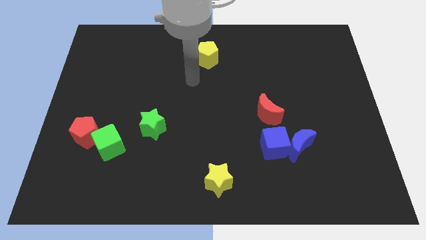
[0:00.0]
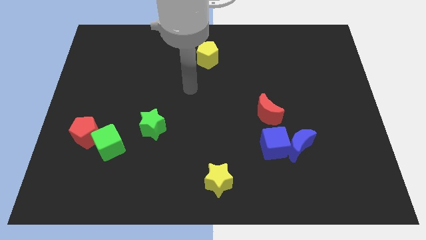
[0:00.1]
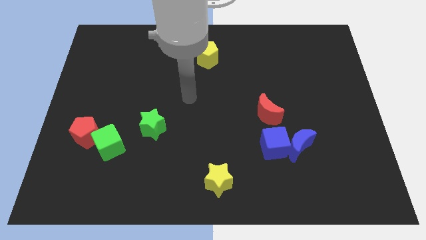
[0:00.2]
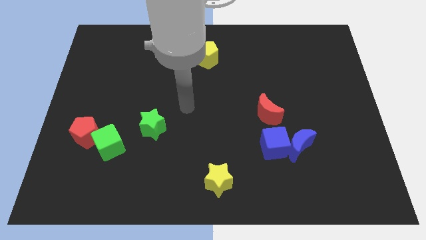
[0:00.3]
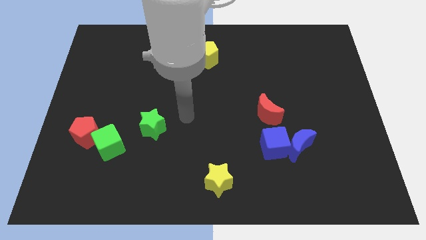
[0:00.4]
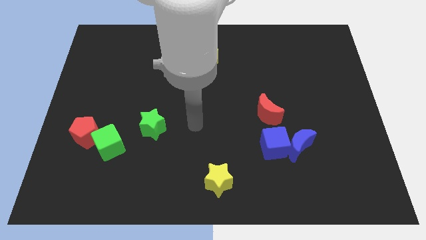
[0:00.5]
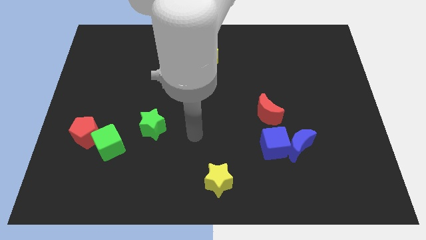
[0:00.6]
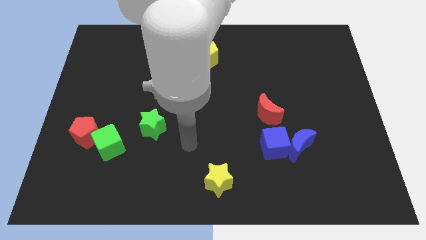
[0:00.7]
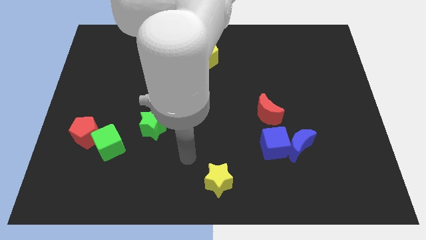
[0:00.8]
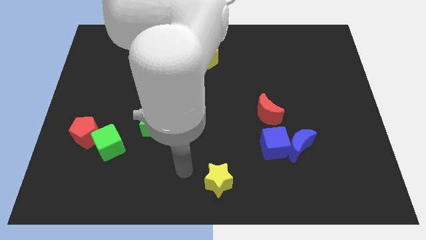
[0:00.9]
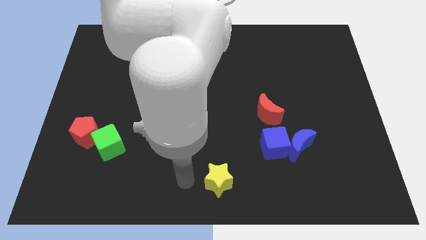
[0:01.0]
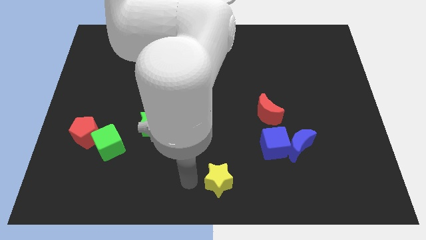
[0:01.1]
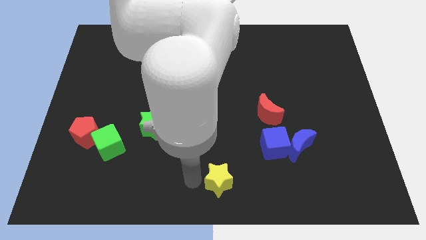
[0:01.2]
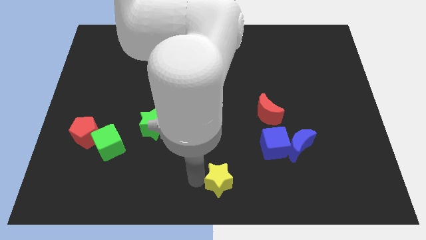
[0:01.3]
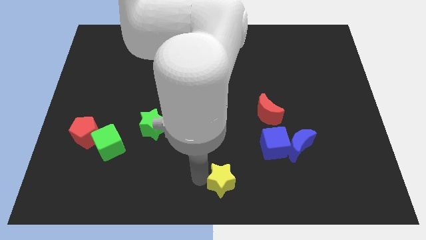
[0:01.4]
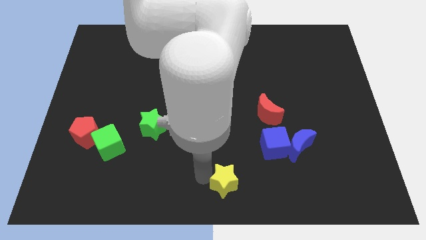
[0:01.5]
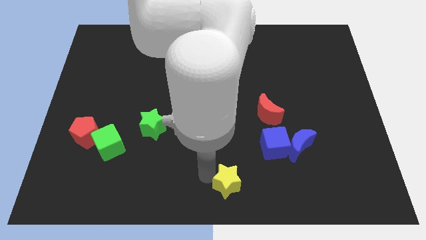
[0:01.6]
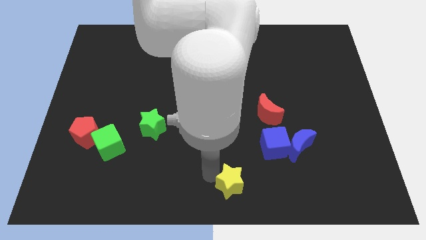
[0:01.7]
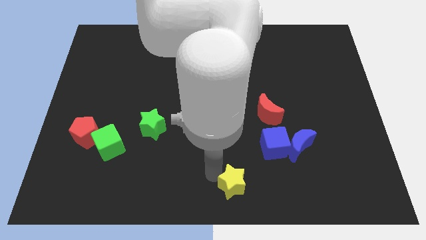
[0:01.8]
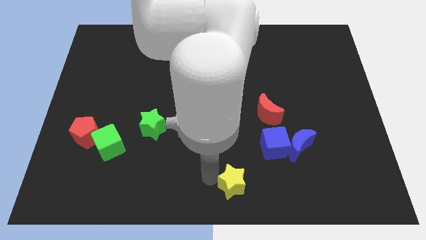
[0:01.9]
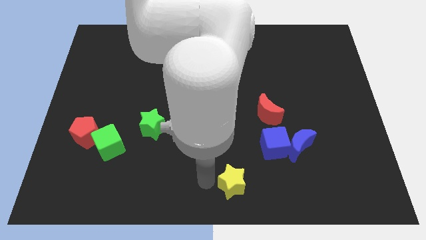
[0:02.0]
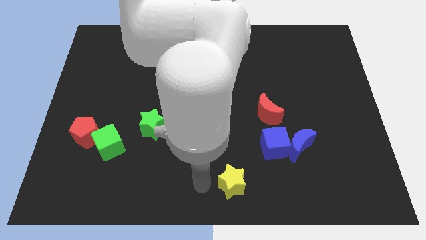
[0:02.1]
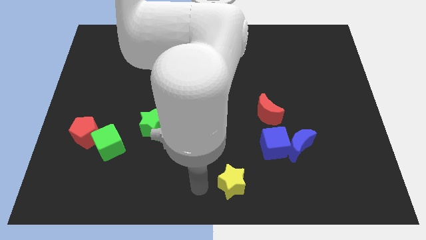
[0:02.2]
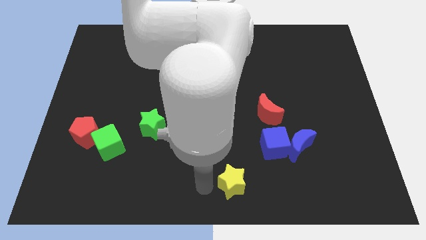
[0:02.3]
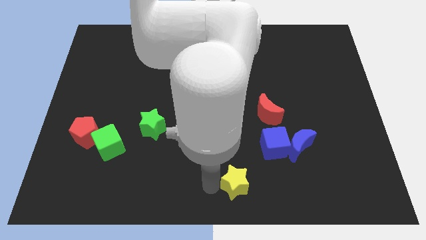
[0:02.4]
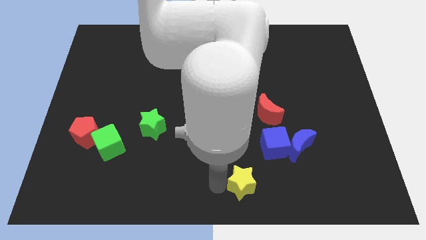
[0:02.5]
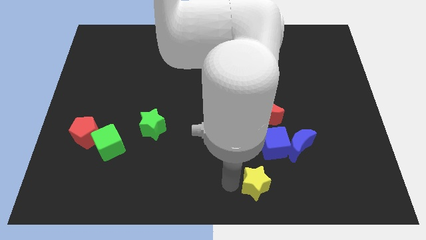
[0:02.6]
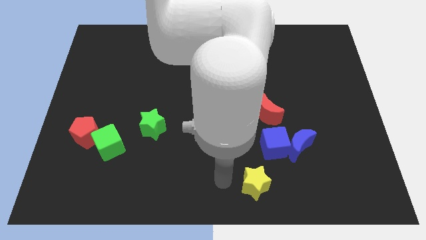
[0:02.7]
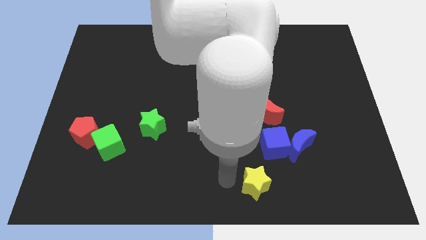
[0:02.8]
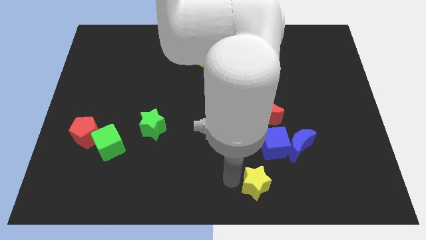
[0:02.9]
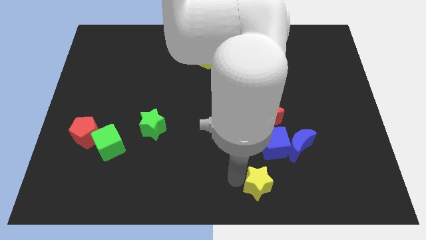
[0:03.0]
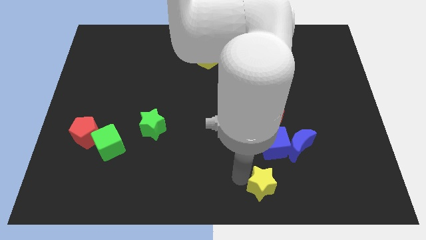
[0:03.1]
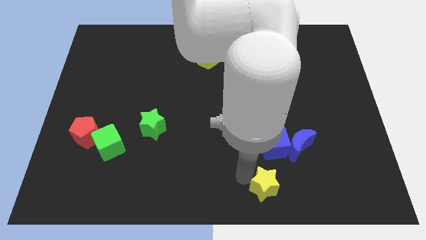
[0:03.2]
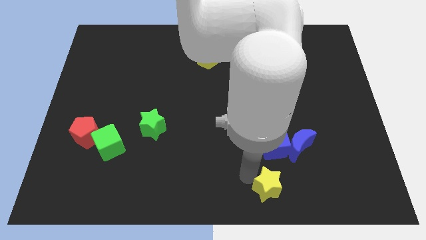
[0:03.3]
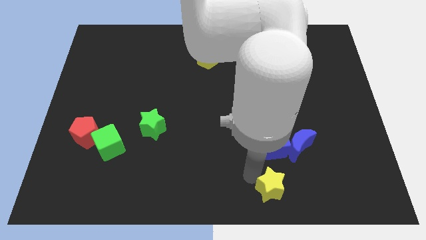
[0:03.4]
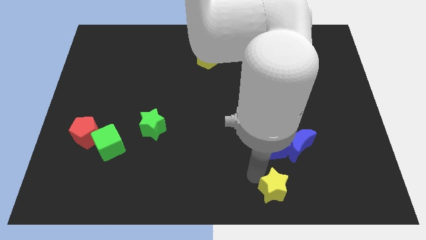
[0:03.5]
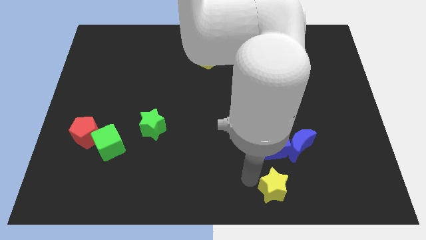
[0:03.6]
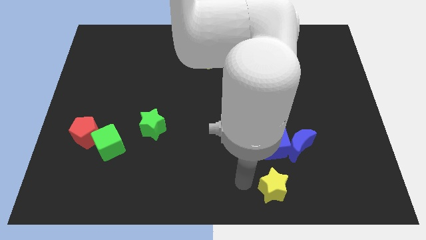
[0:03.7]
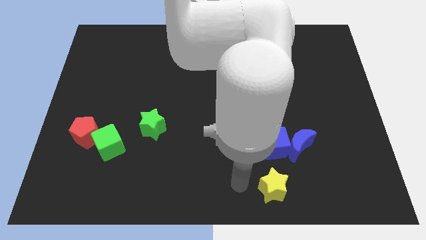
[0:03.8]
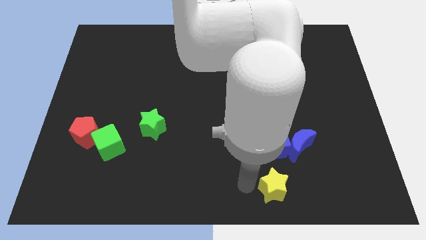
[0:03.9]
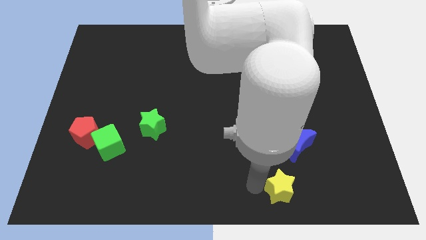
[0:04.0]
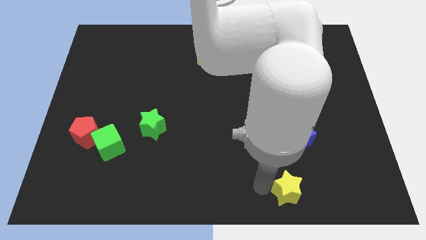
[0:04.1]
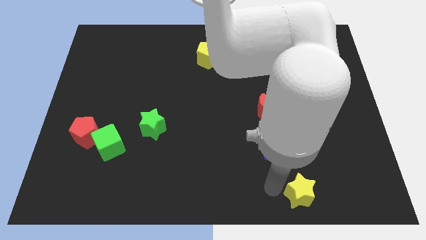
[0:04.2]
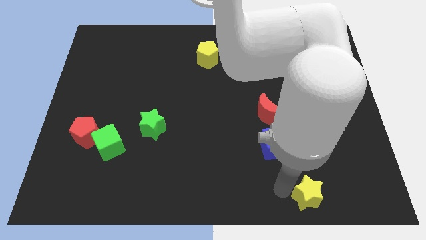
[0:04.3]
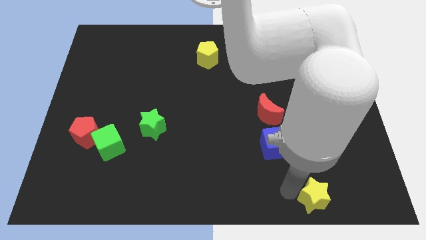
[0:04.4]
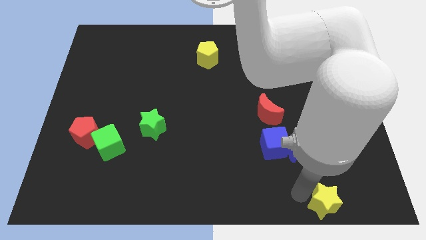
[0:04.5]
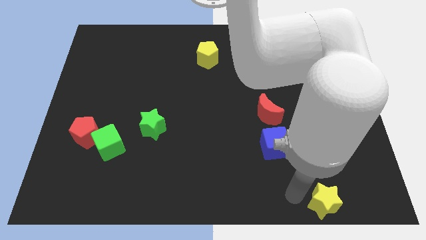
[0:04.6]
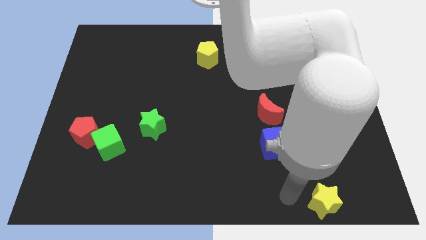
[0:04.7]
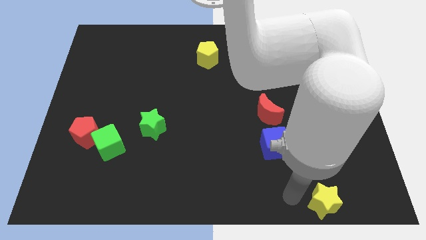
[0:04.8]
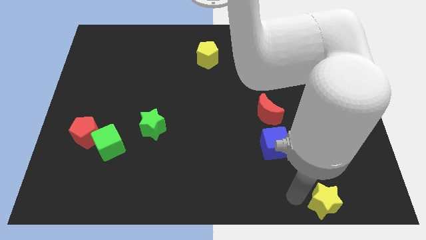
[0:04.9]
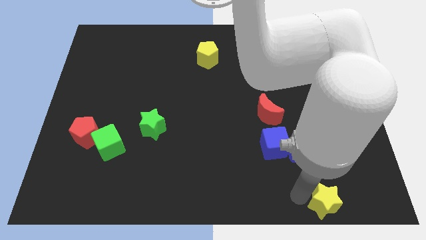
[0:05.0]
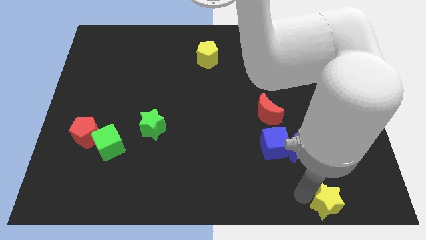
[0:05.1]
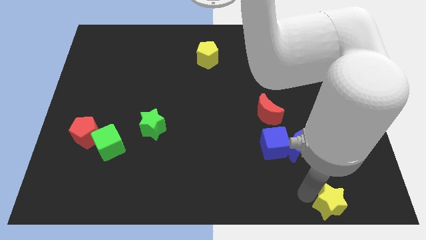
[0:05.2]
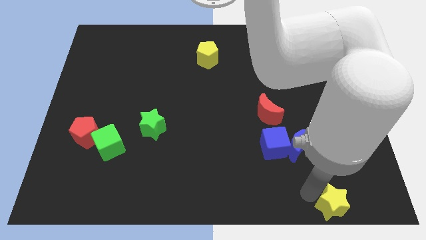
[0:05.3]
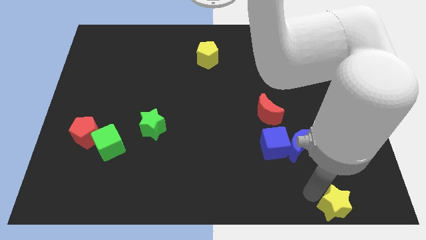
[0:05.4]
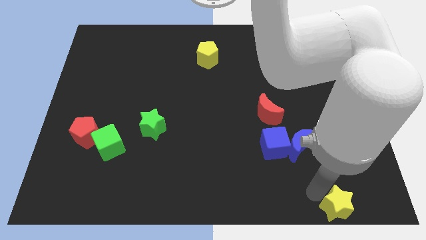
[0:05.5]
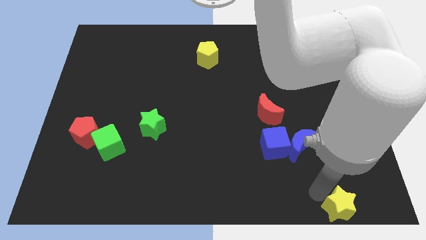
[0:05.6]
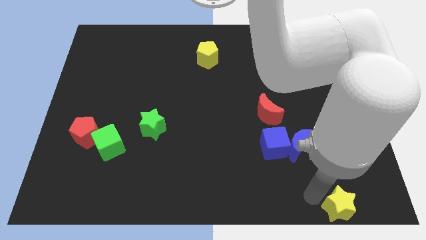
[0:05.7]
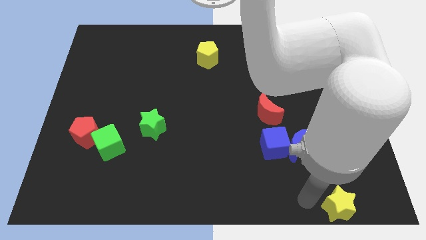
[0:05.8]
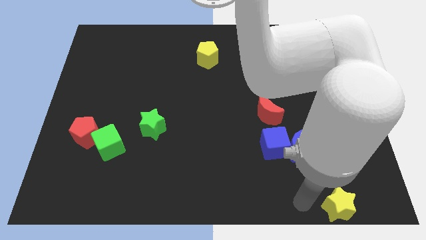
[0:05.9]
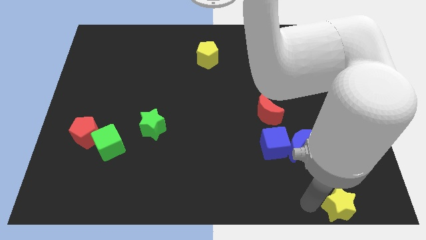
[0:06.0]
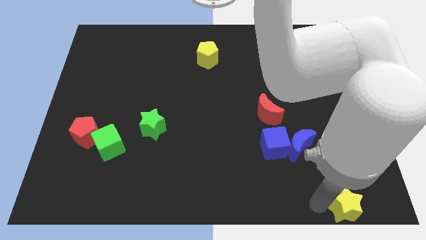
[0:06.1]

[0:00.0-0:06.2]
push the yellow star to the bottom right corner
